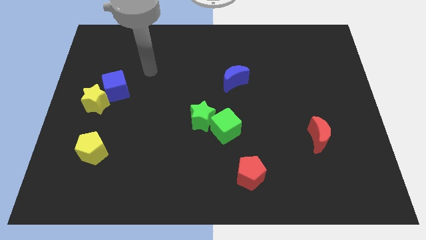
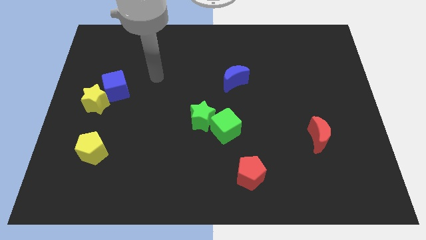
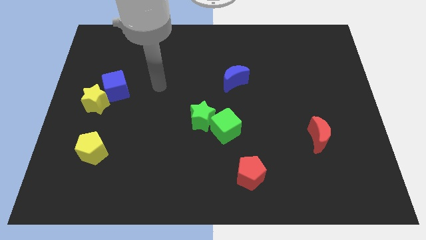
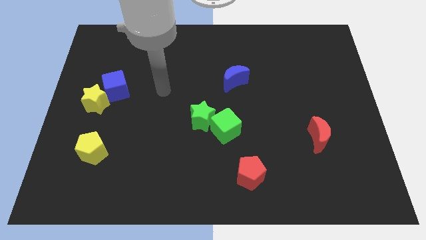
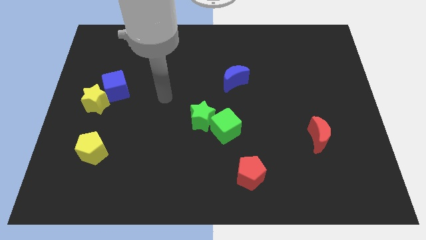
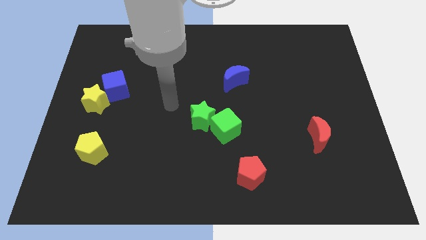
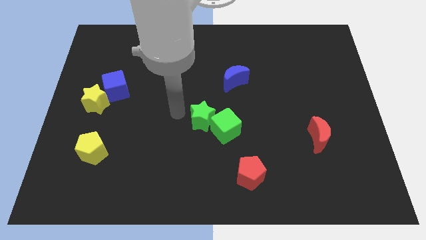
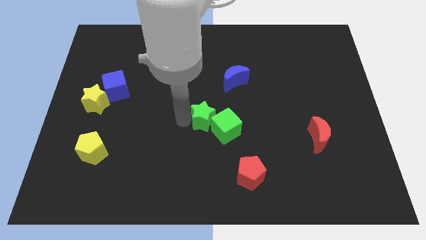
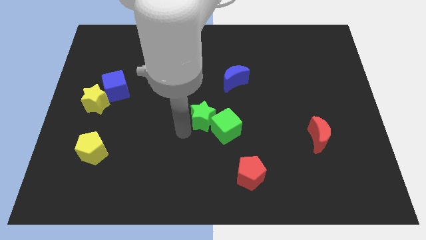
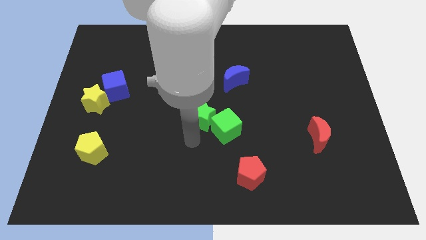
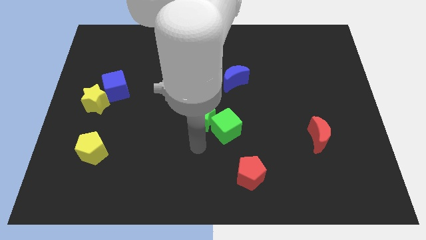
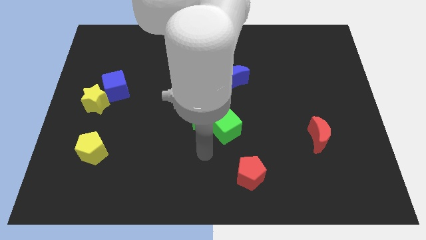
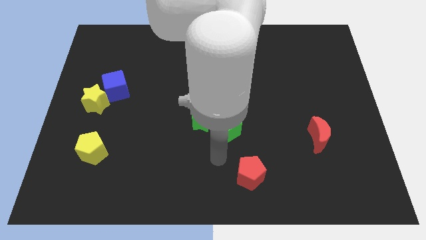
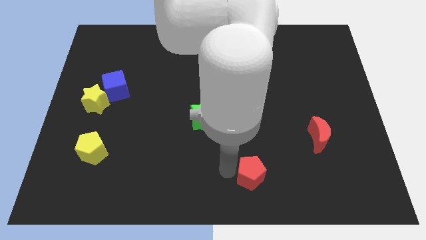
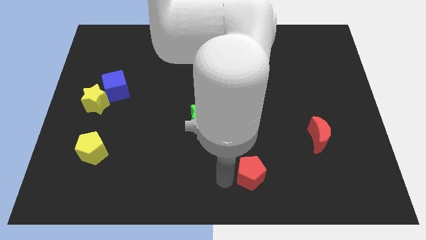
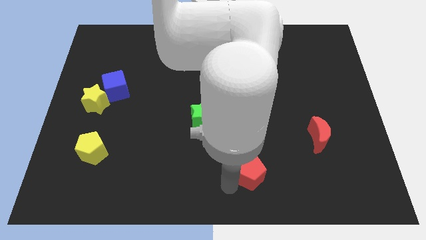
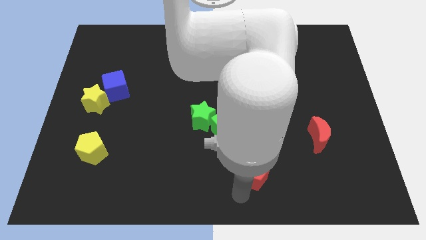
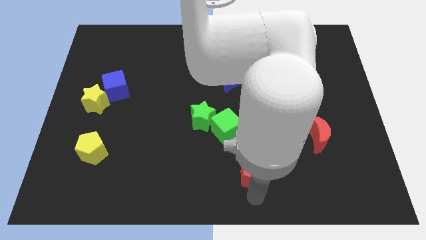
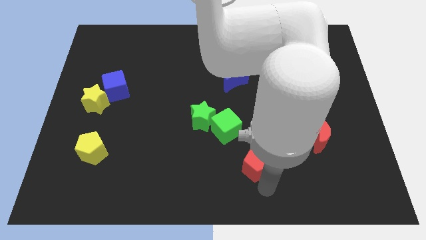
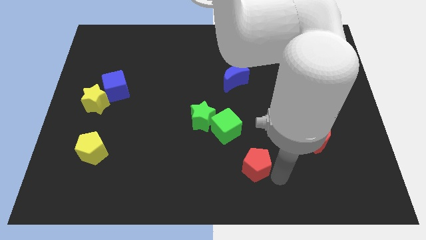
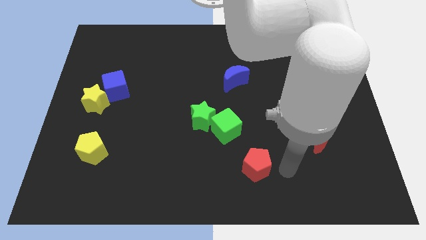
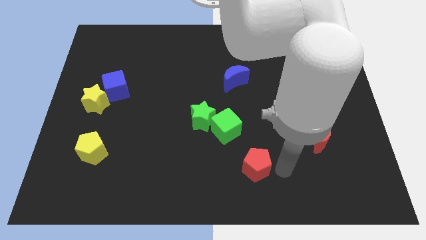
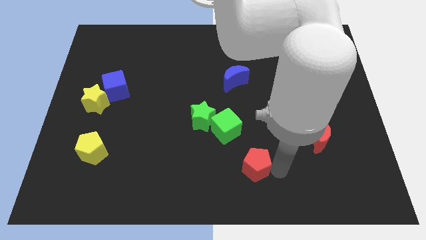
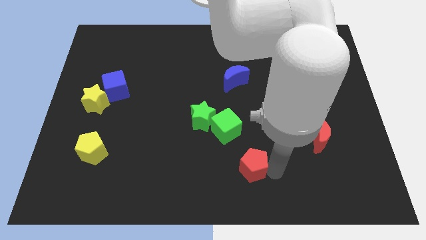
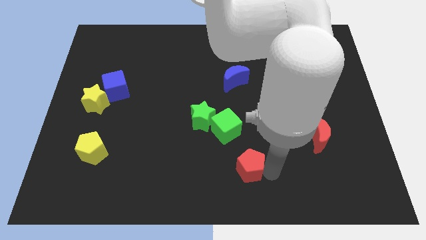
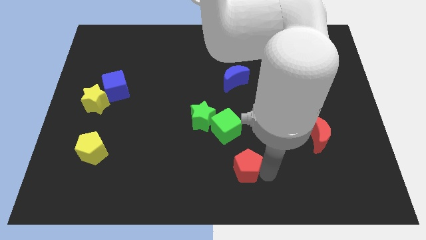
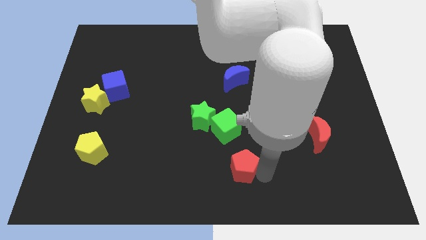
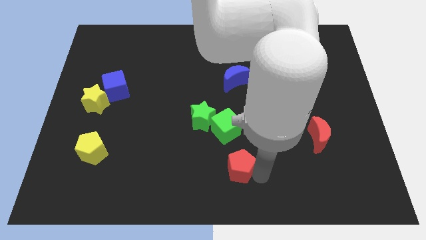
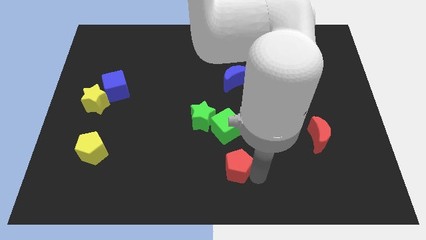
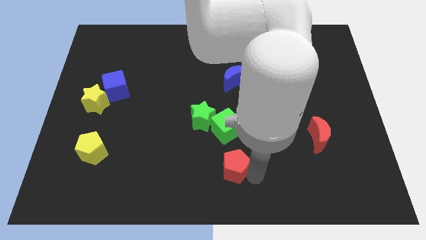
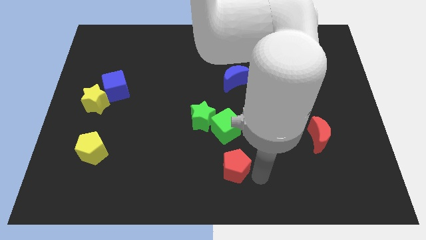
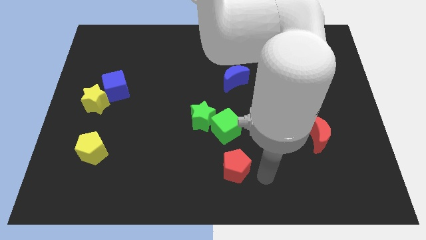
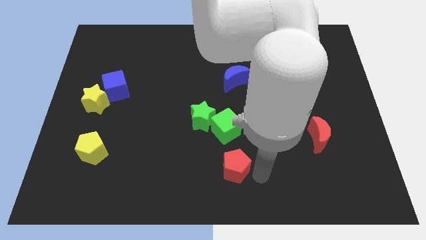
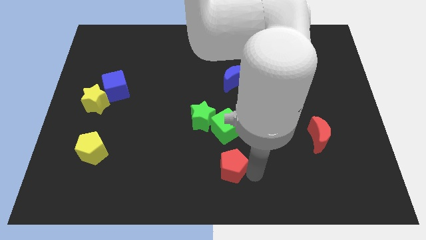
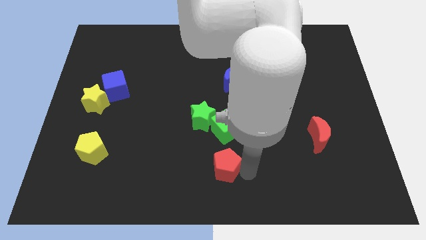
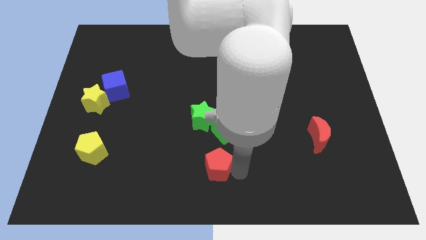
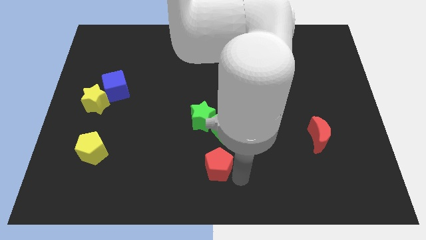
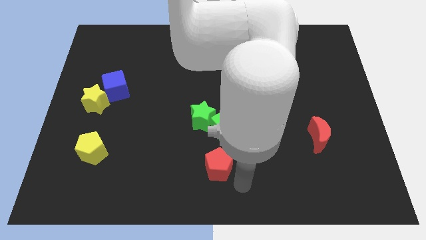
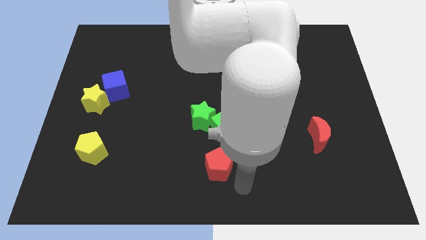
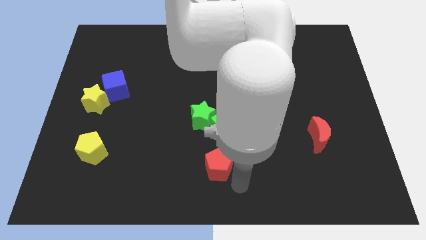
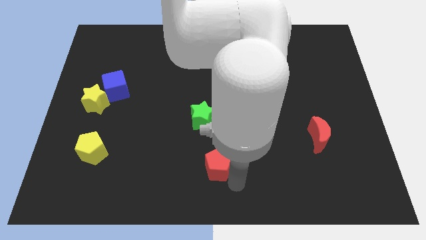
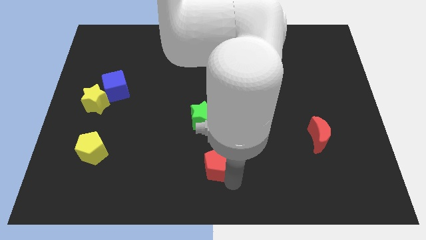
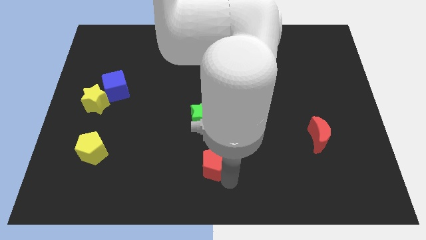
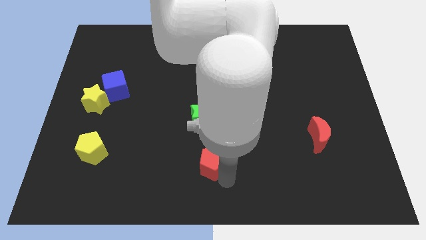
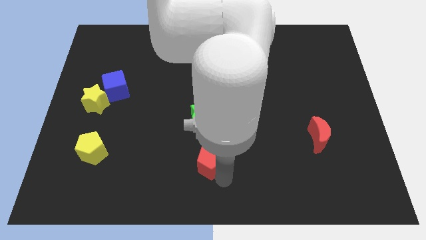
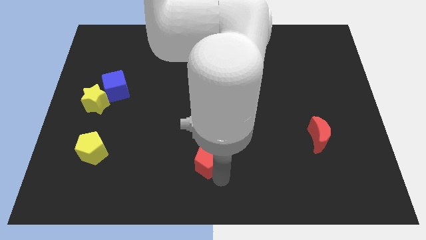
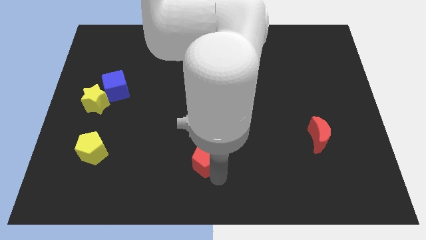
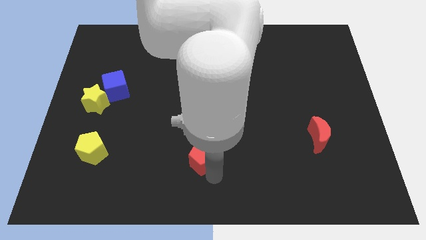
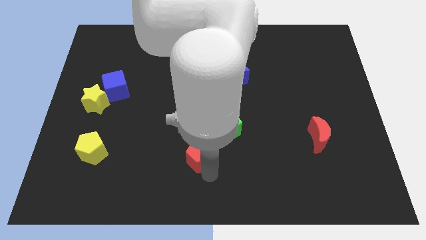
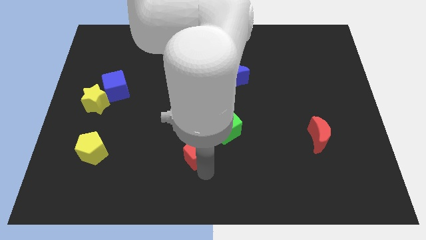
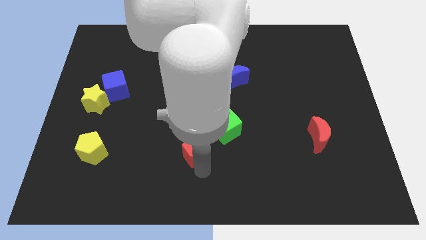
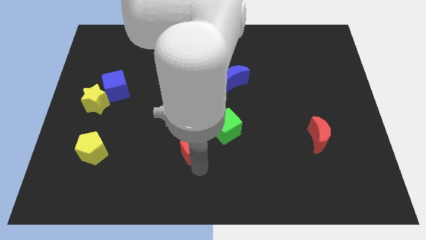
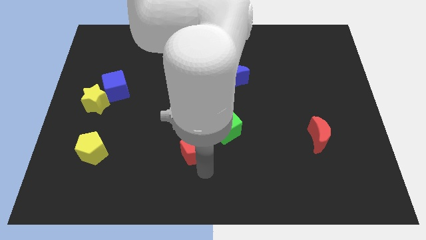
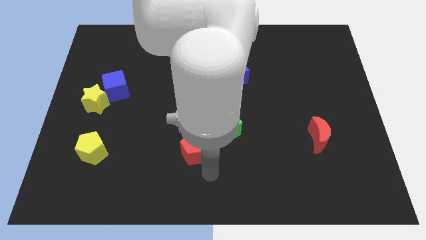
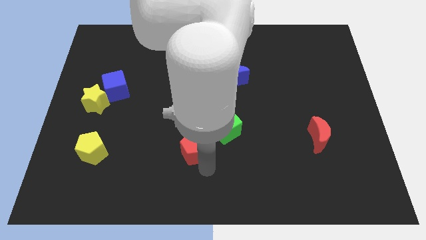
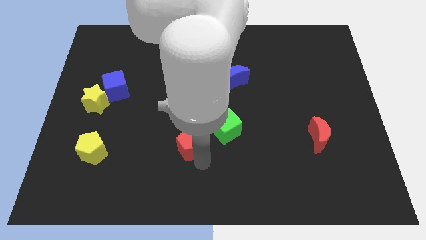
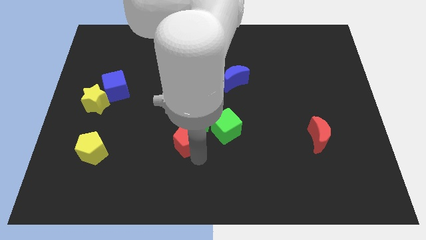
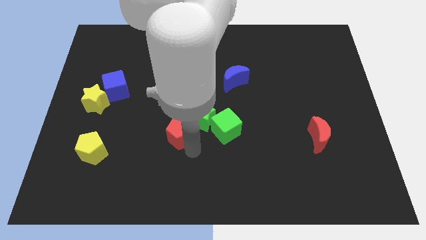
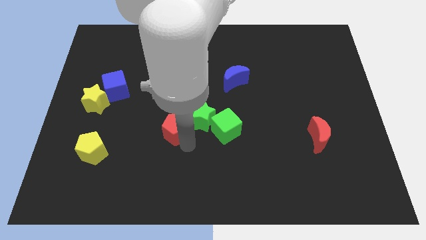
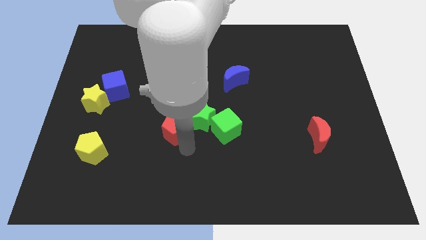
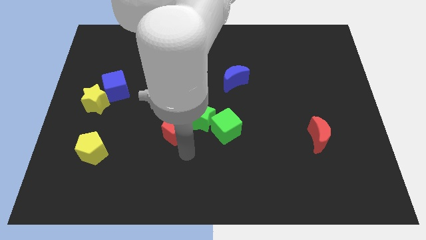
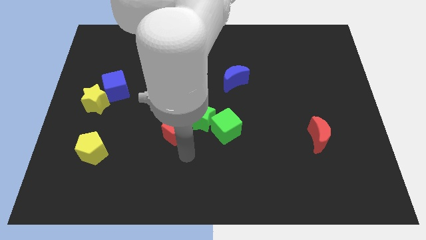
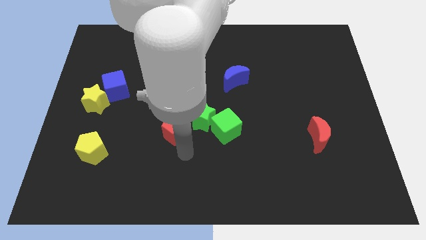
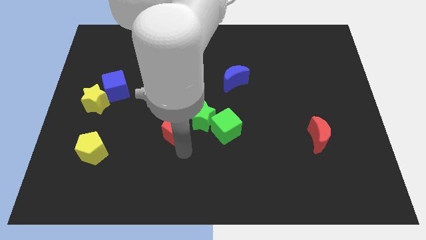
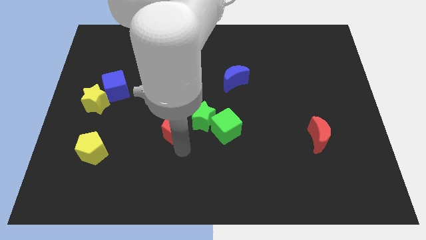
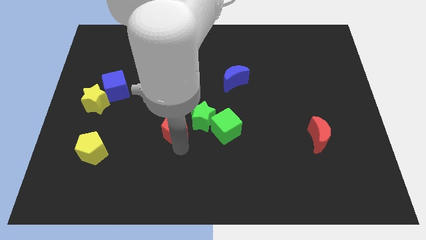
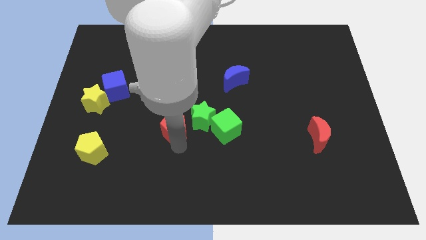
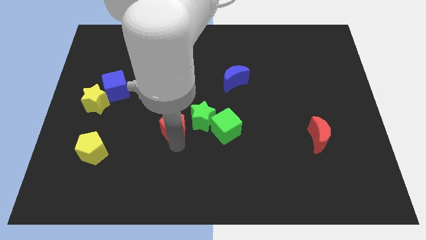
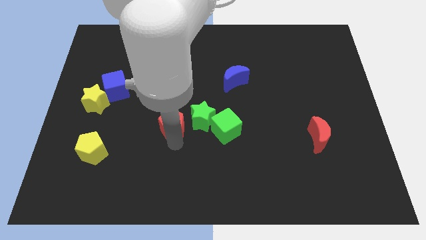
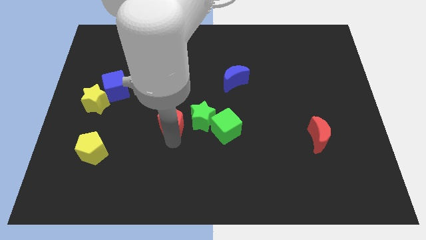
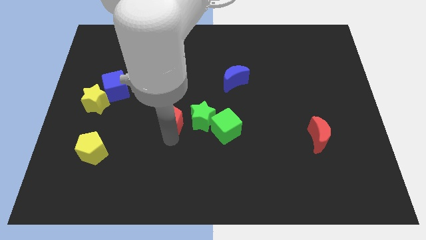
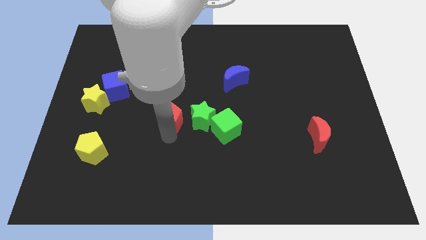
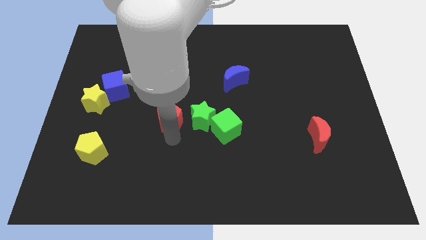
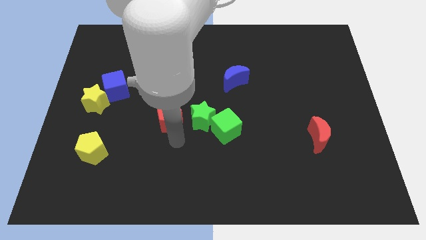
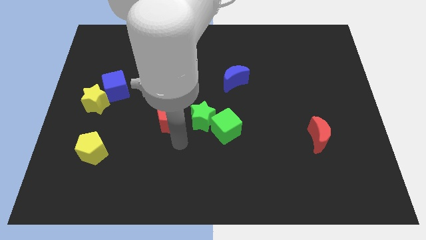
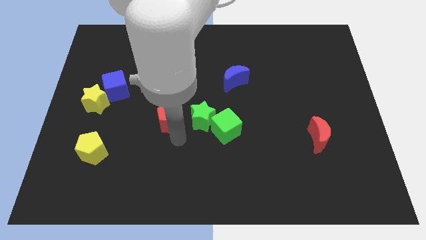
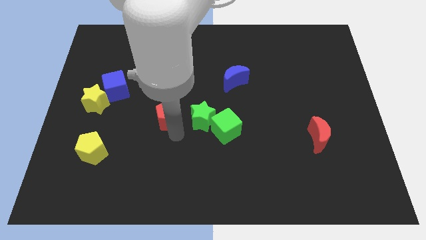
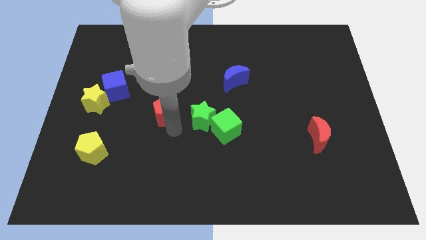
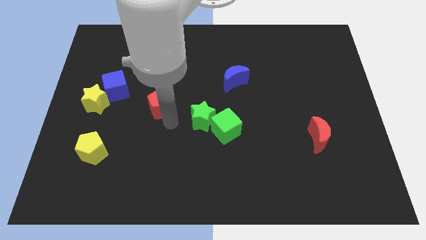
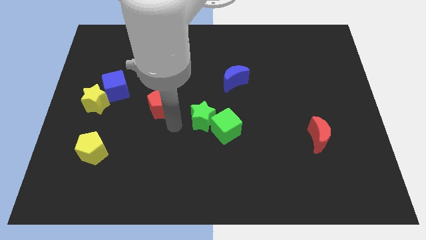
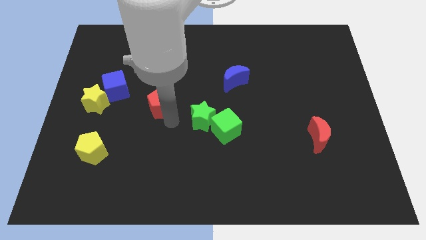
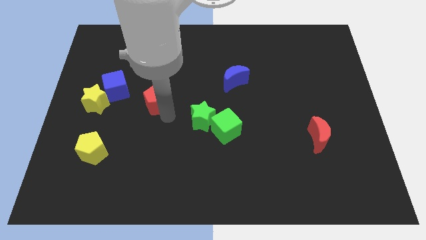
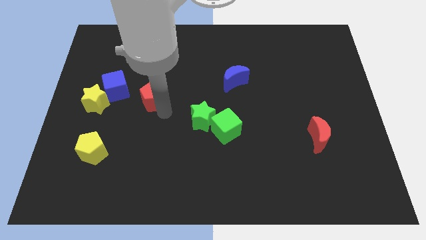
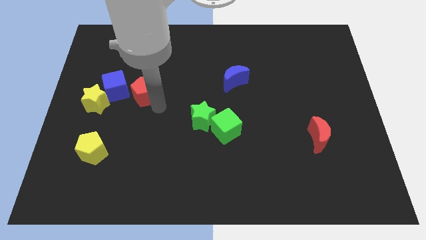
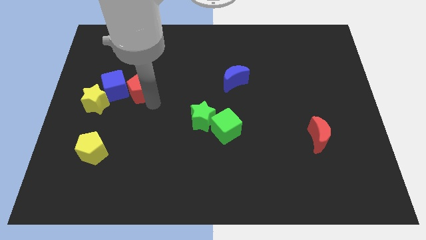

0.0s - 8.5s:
slide the red pentagon to the top right side of the blue cube
